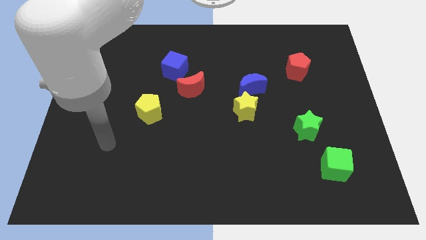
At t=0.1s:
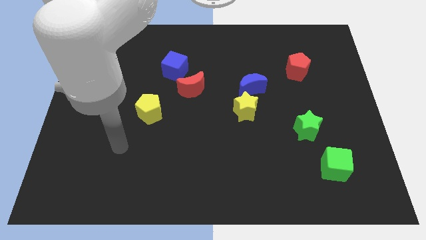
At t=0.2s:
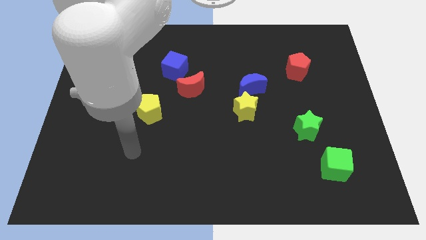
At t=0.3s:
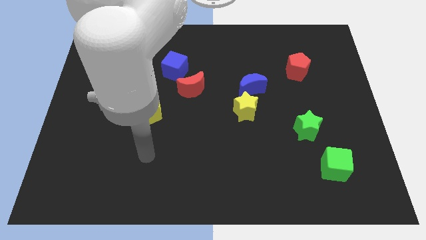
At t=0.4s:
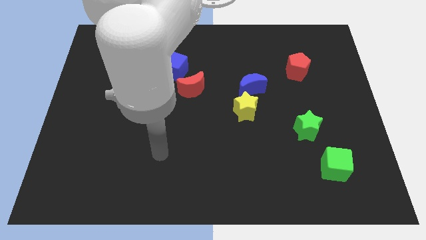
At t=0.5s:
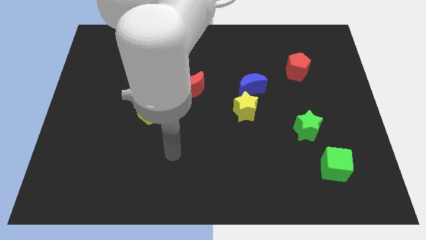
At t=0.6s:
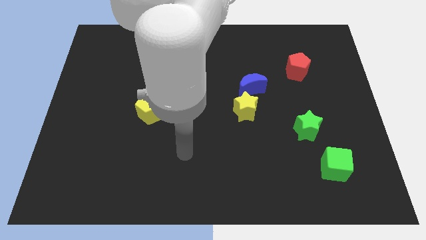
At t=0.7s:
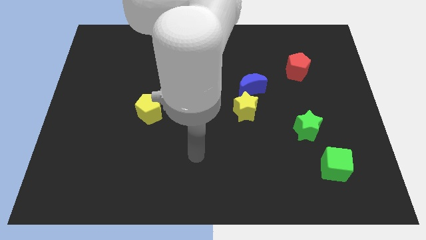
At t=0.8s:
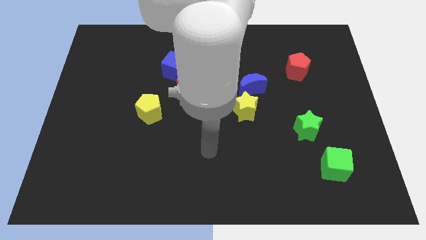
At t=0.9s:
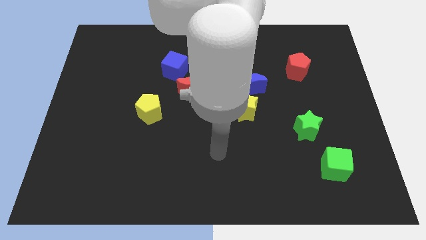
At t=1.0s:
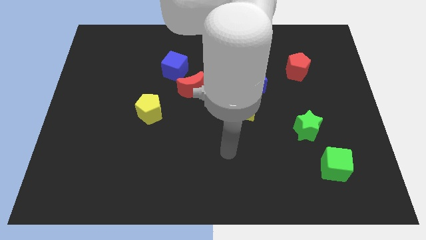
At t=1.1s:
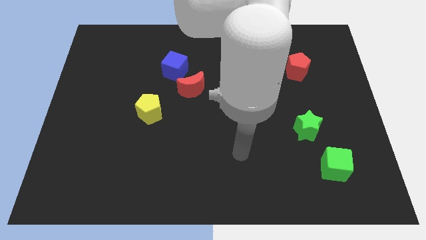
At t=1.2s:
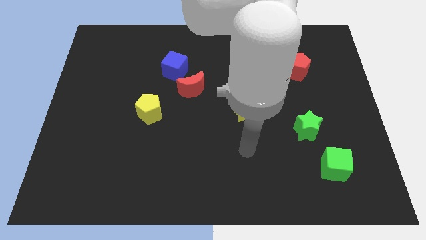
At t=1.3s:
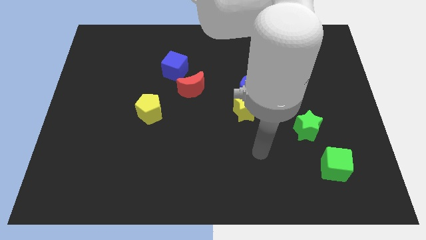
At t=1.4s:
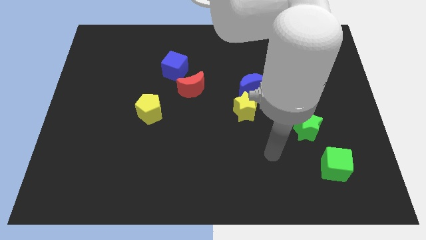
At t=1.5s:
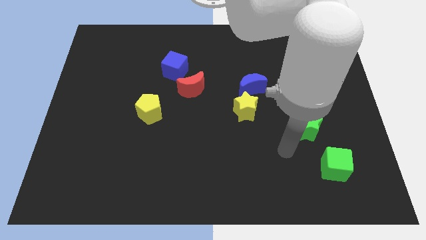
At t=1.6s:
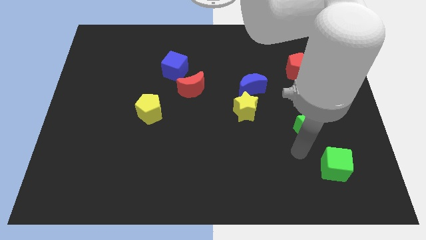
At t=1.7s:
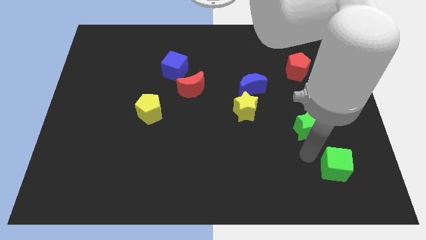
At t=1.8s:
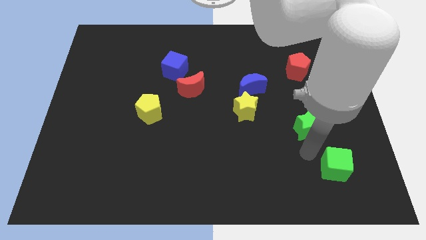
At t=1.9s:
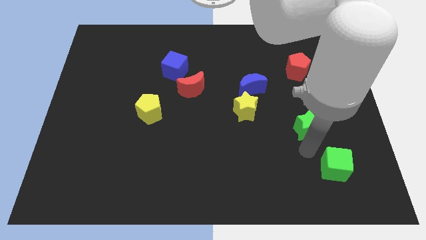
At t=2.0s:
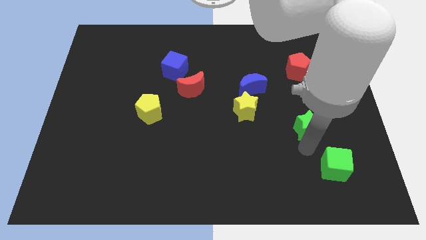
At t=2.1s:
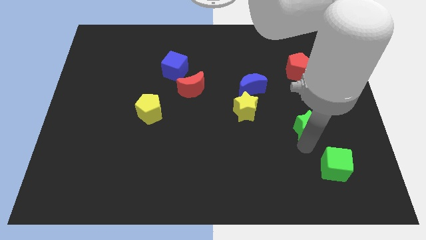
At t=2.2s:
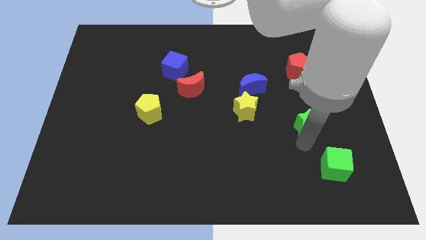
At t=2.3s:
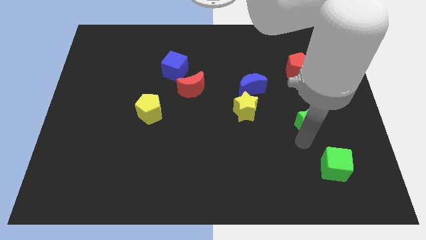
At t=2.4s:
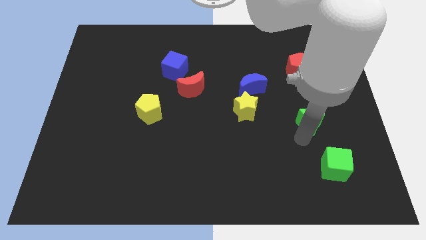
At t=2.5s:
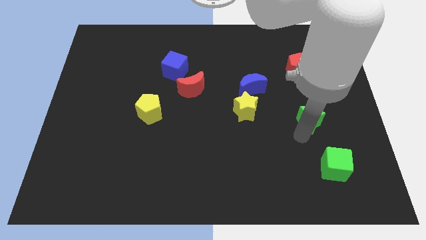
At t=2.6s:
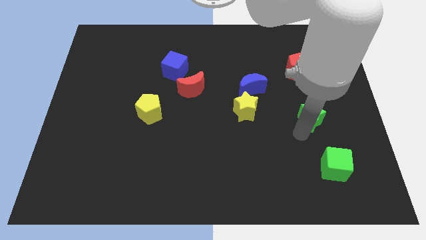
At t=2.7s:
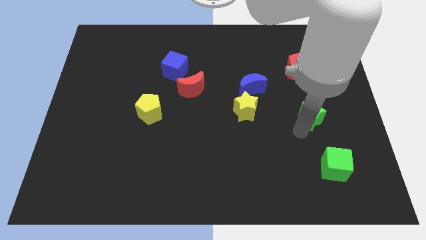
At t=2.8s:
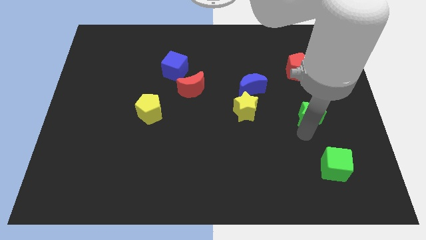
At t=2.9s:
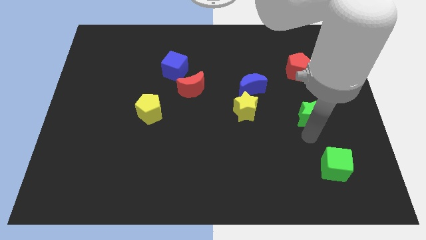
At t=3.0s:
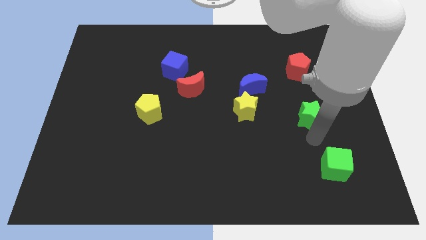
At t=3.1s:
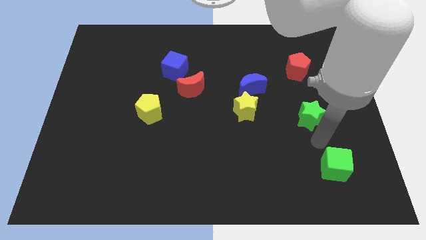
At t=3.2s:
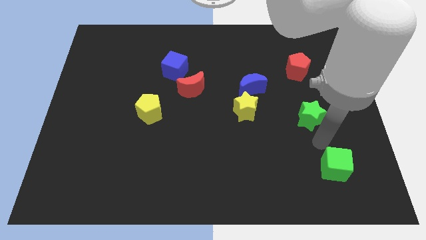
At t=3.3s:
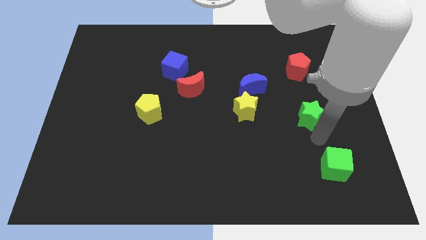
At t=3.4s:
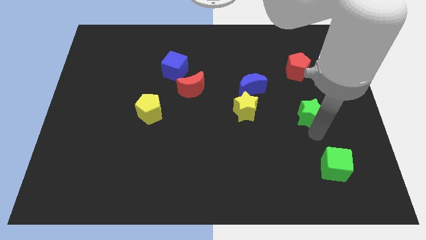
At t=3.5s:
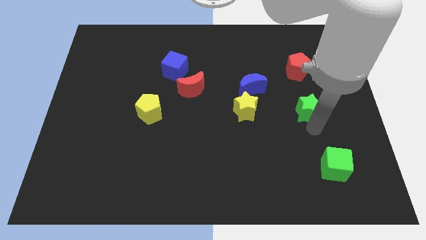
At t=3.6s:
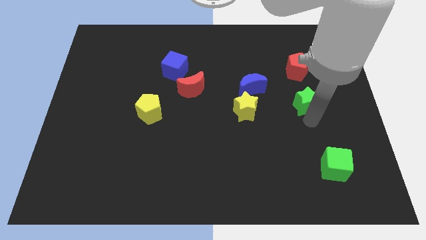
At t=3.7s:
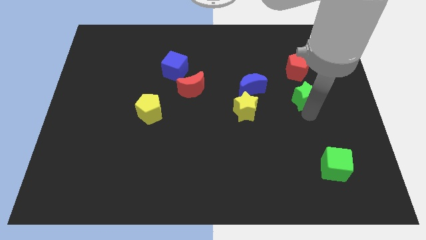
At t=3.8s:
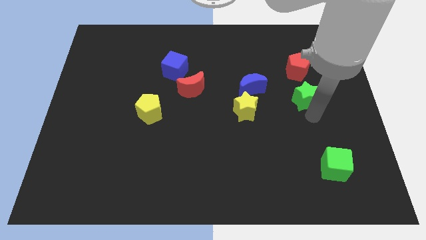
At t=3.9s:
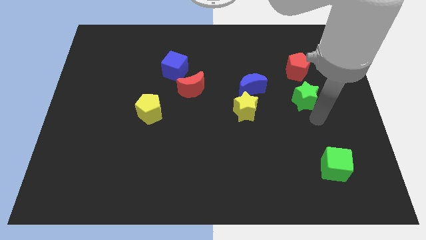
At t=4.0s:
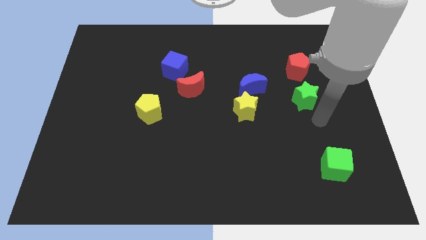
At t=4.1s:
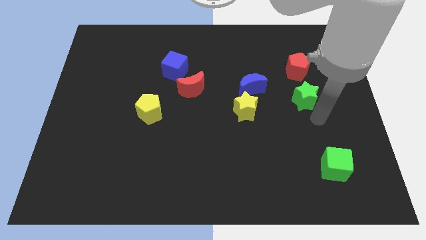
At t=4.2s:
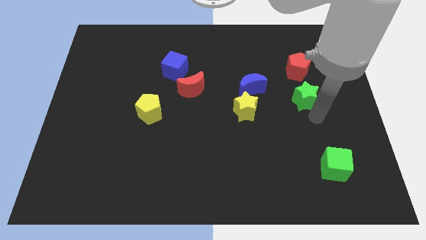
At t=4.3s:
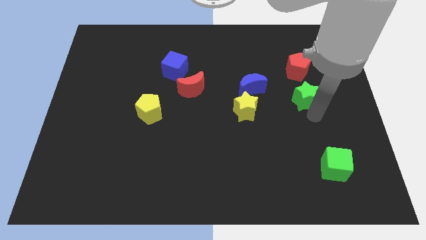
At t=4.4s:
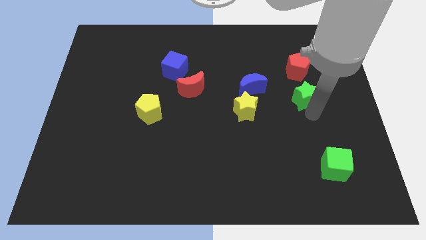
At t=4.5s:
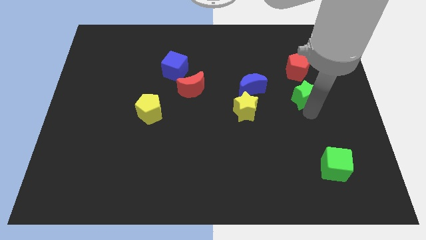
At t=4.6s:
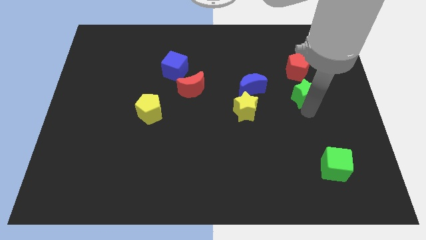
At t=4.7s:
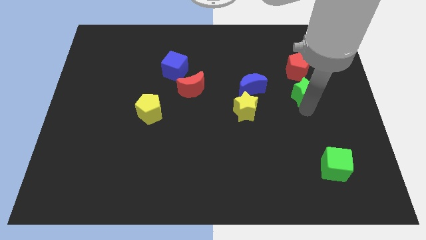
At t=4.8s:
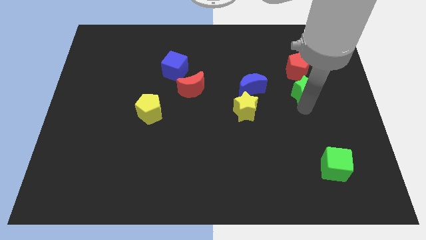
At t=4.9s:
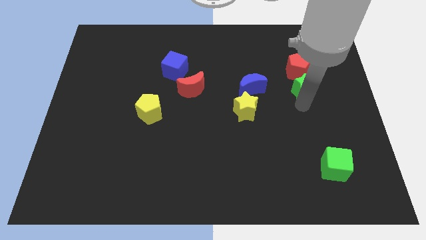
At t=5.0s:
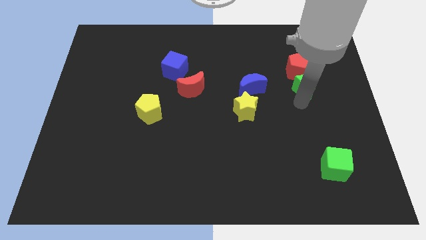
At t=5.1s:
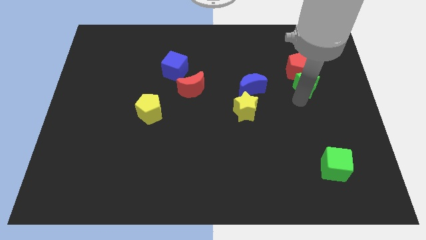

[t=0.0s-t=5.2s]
push the green star next to the red pentagon

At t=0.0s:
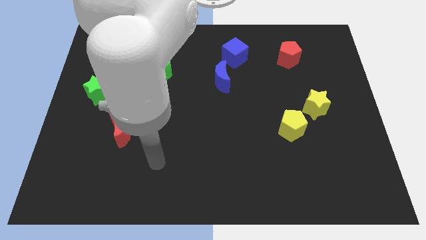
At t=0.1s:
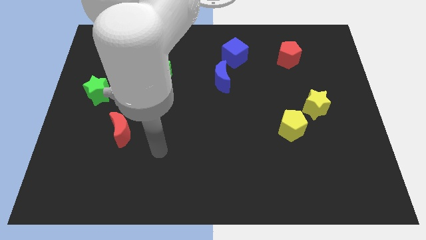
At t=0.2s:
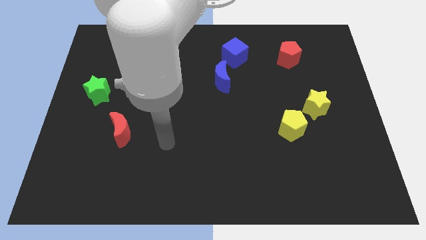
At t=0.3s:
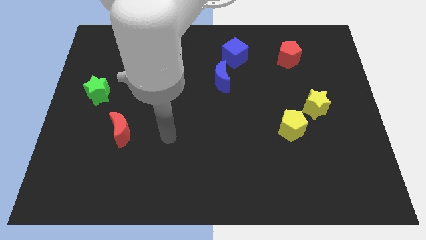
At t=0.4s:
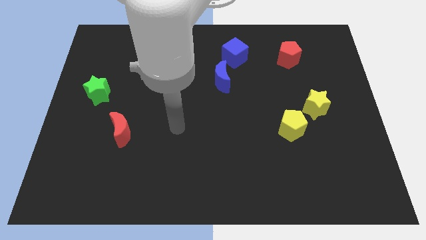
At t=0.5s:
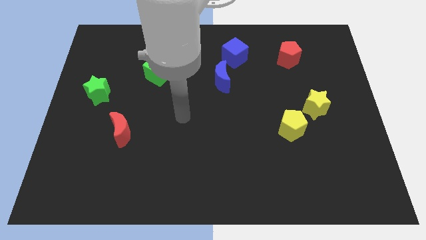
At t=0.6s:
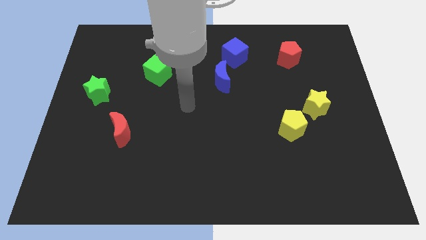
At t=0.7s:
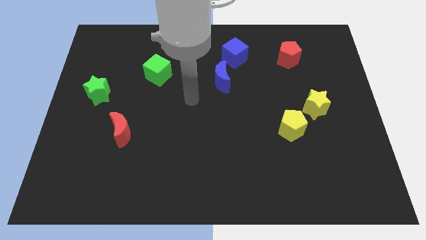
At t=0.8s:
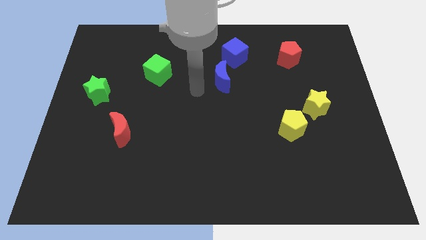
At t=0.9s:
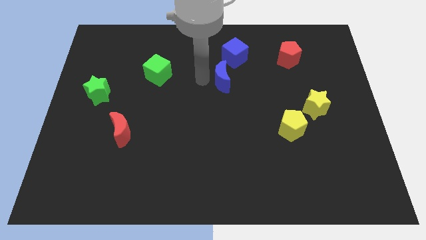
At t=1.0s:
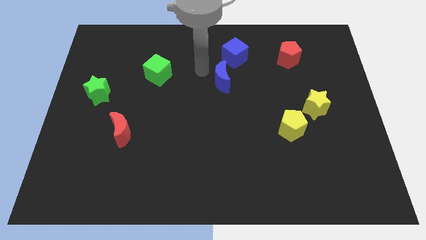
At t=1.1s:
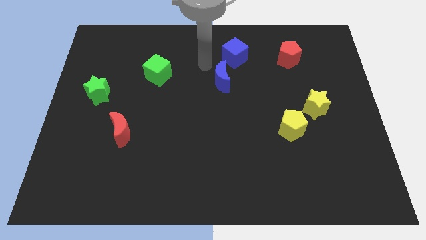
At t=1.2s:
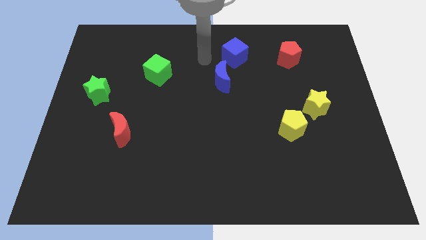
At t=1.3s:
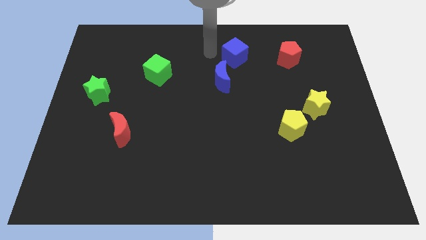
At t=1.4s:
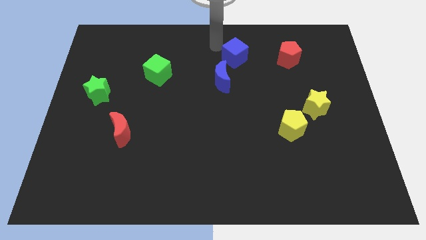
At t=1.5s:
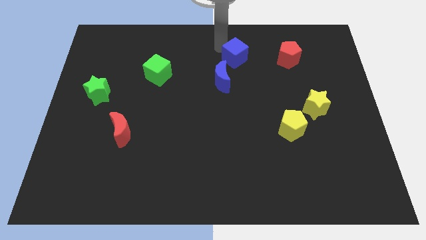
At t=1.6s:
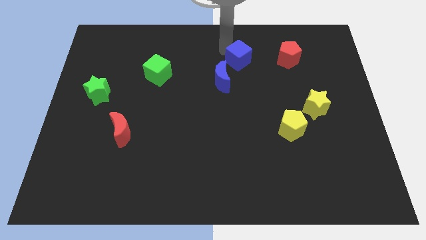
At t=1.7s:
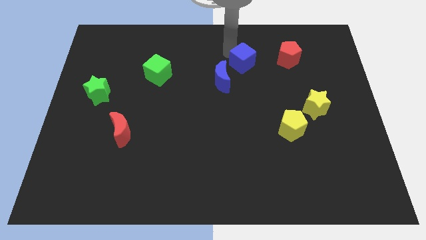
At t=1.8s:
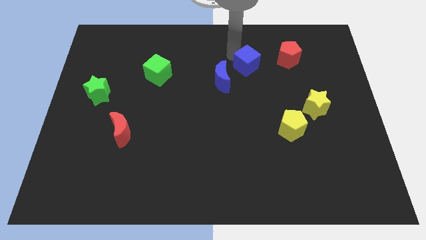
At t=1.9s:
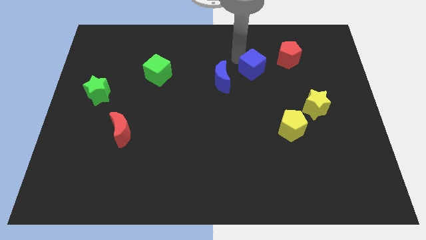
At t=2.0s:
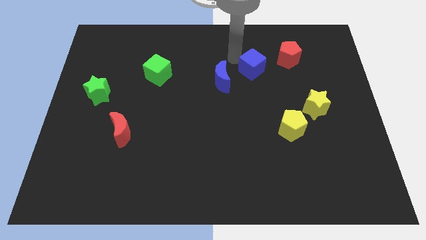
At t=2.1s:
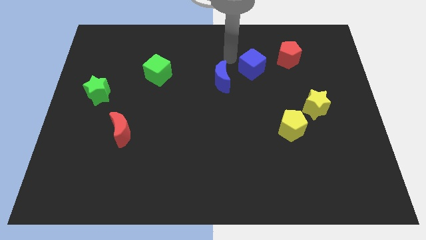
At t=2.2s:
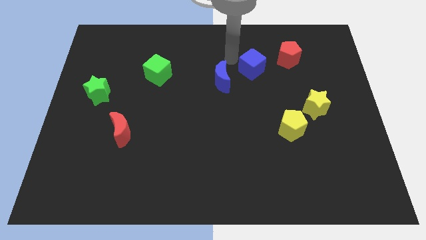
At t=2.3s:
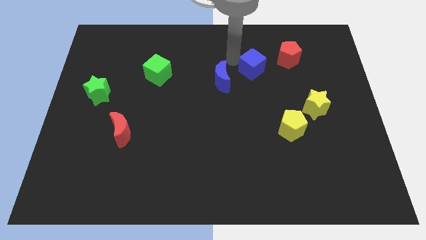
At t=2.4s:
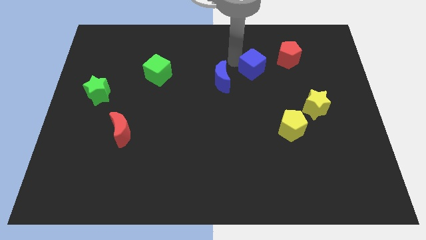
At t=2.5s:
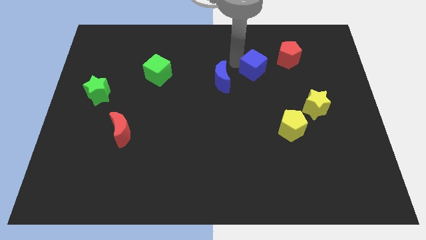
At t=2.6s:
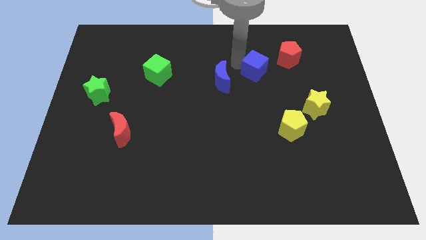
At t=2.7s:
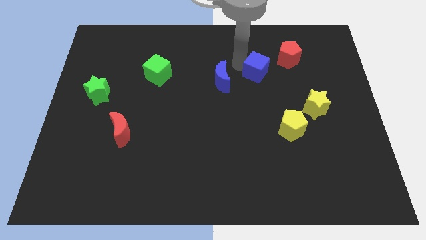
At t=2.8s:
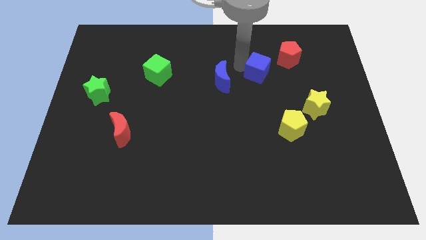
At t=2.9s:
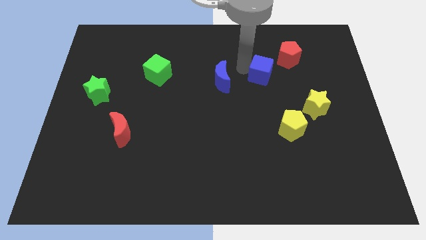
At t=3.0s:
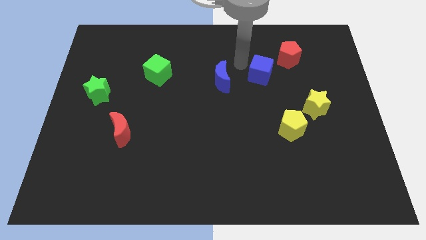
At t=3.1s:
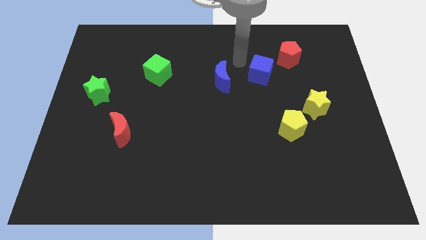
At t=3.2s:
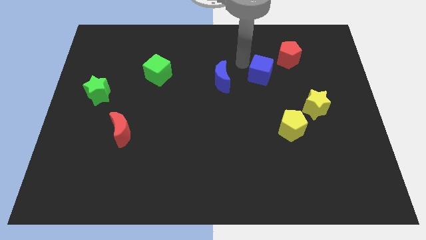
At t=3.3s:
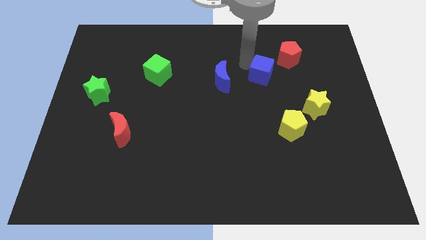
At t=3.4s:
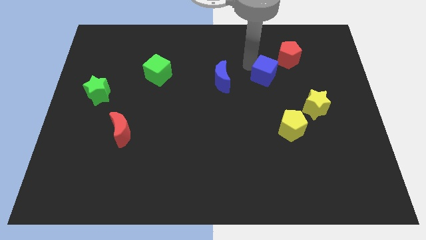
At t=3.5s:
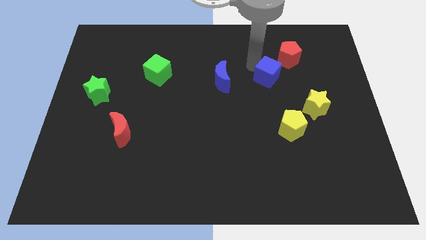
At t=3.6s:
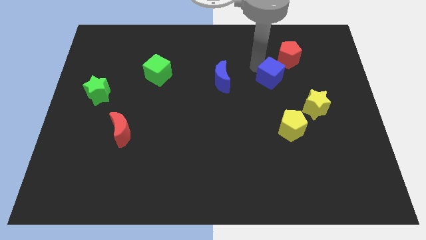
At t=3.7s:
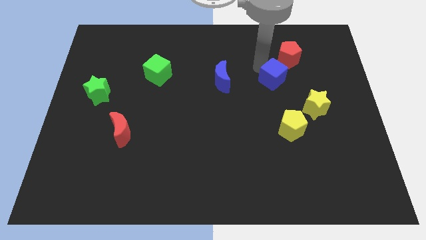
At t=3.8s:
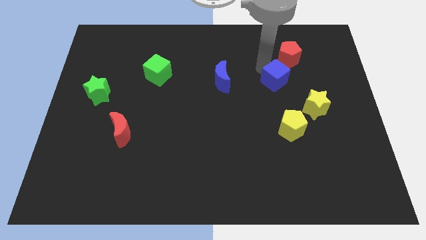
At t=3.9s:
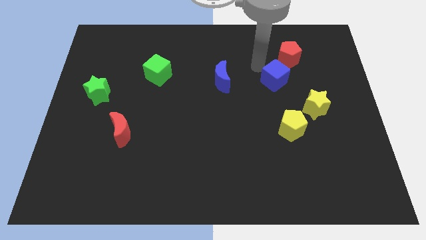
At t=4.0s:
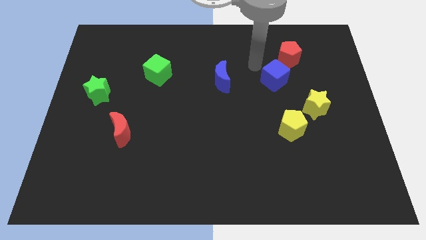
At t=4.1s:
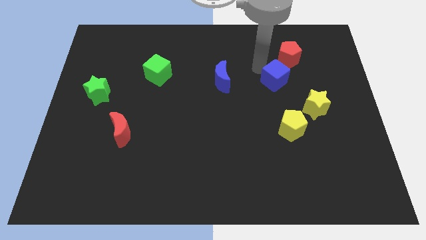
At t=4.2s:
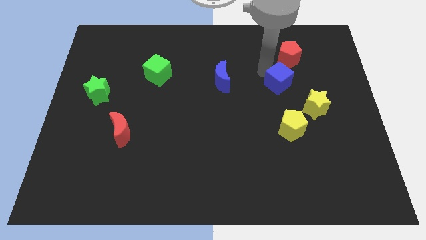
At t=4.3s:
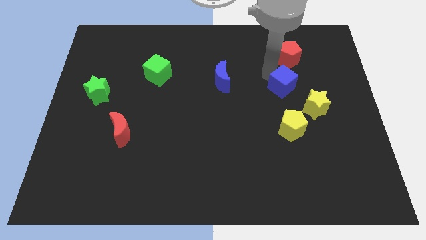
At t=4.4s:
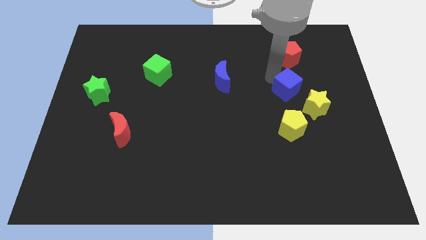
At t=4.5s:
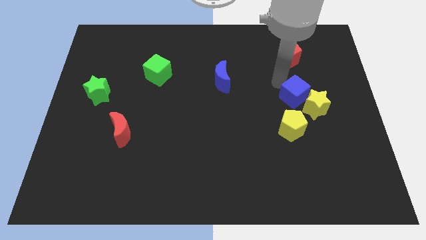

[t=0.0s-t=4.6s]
move the blue cube next to the yellow star
